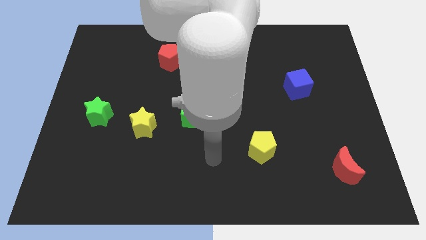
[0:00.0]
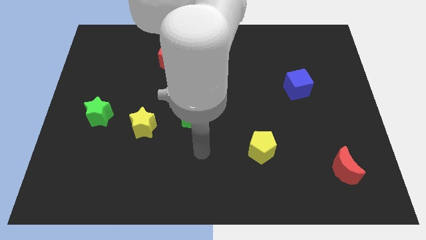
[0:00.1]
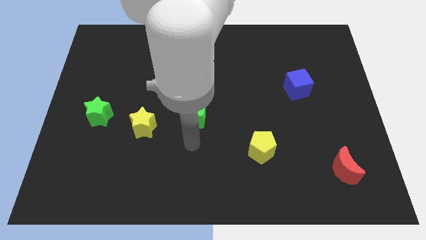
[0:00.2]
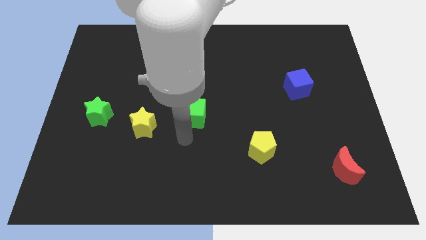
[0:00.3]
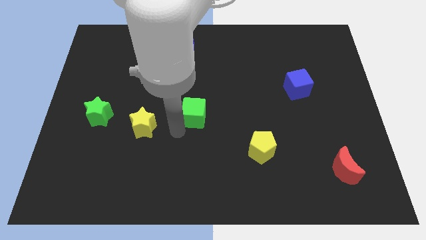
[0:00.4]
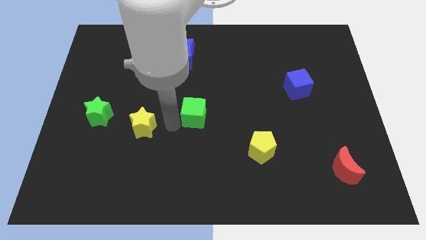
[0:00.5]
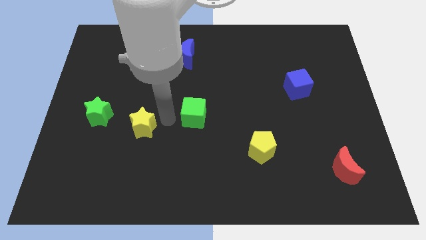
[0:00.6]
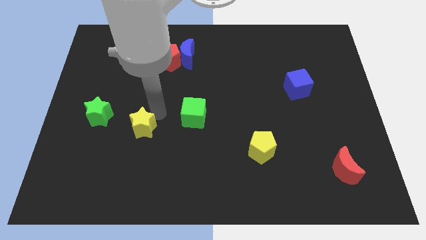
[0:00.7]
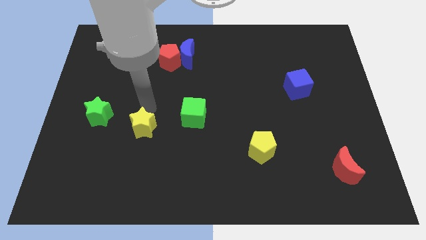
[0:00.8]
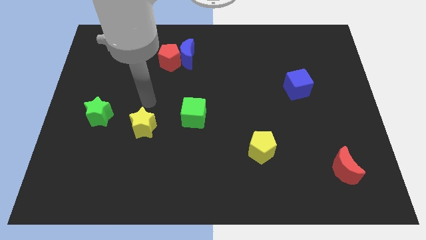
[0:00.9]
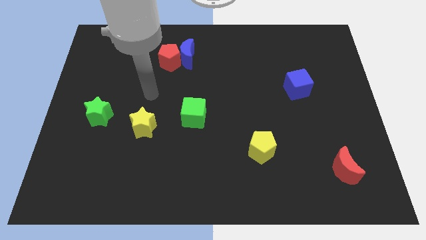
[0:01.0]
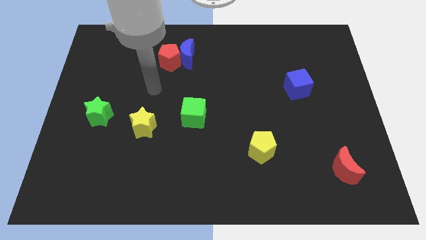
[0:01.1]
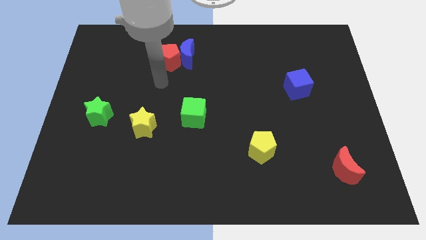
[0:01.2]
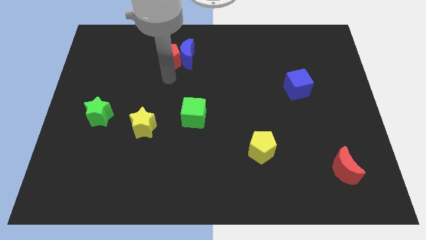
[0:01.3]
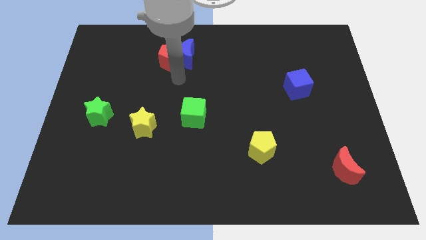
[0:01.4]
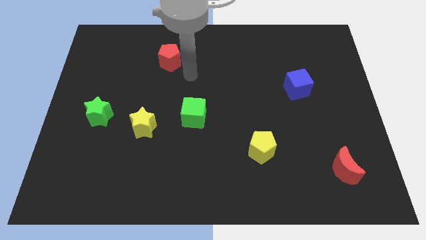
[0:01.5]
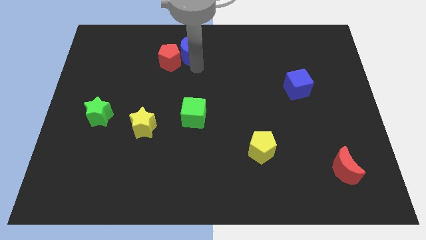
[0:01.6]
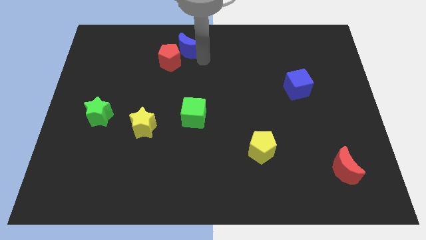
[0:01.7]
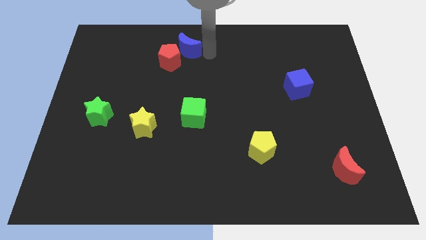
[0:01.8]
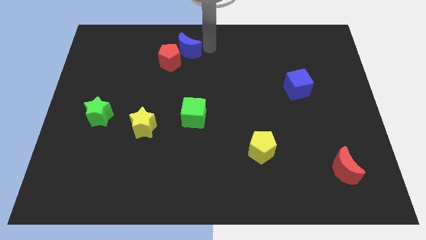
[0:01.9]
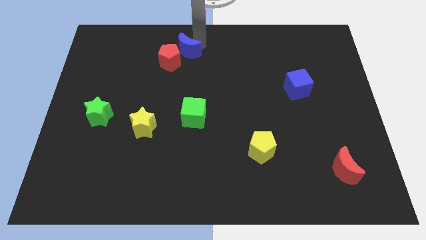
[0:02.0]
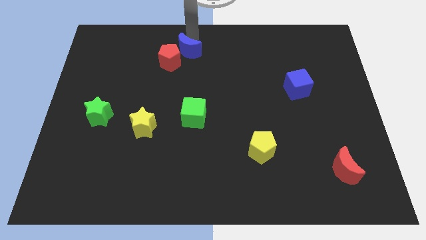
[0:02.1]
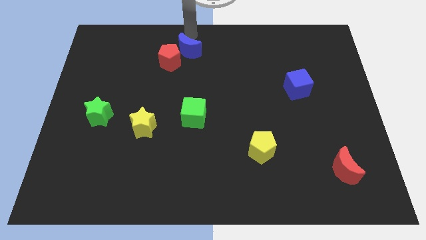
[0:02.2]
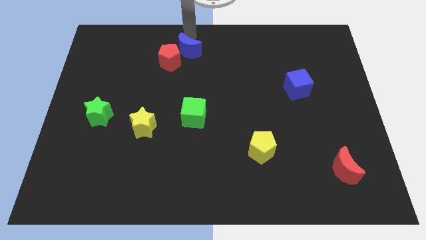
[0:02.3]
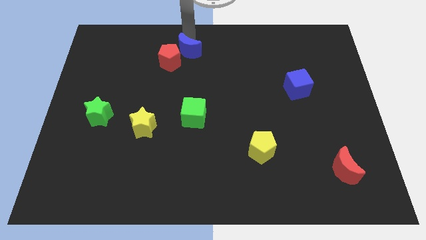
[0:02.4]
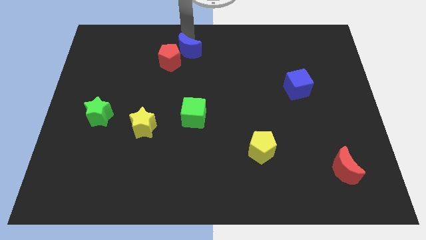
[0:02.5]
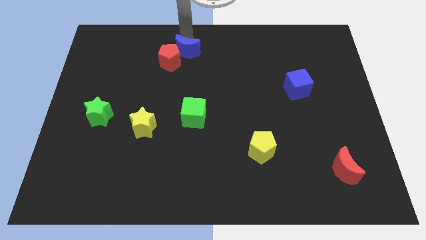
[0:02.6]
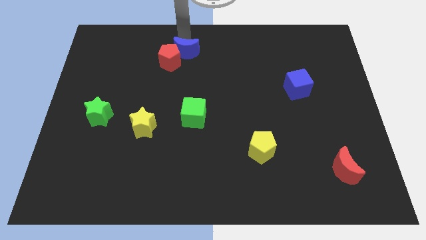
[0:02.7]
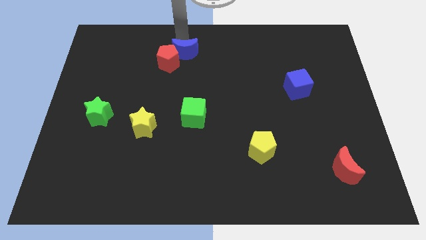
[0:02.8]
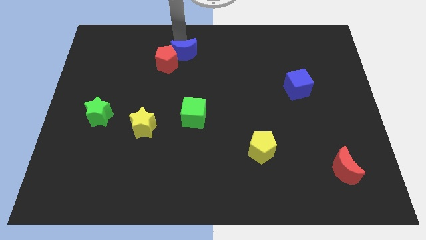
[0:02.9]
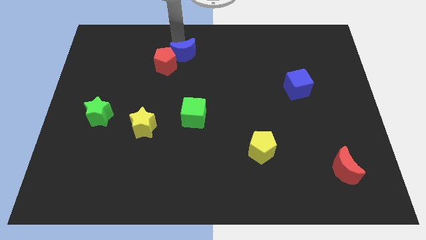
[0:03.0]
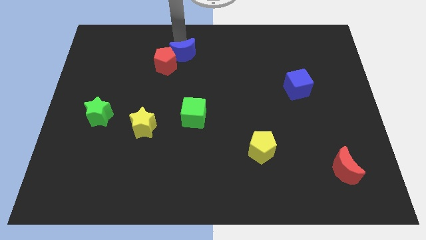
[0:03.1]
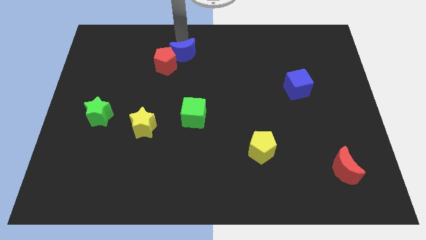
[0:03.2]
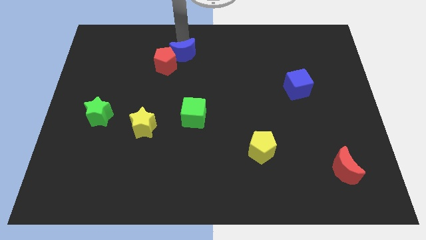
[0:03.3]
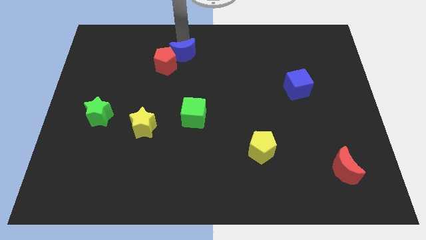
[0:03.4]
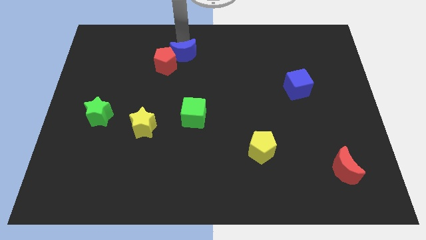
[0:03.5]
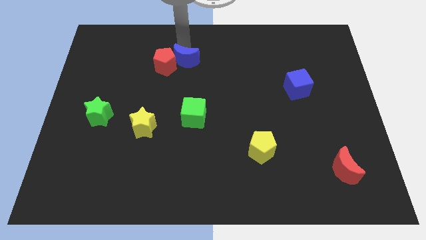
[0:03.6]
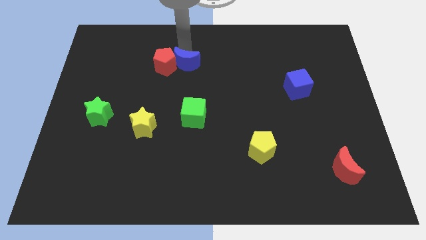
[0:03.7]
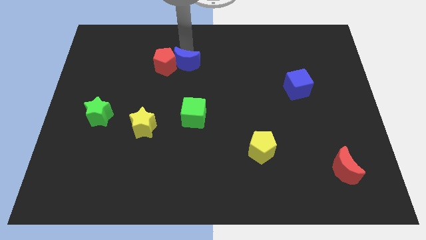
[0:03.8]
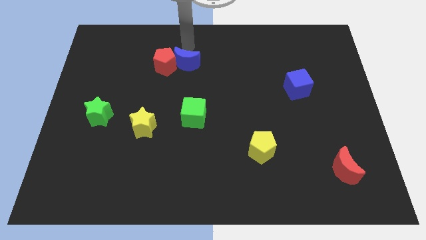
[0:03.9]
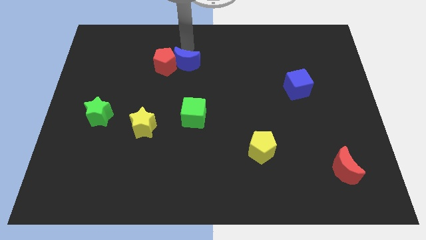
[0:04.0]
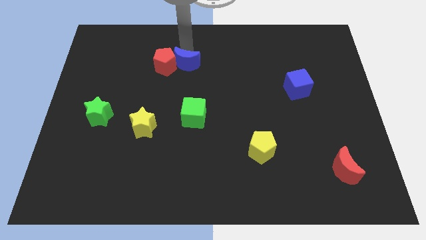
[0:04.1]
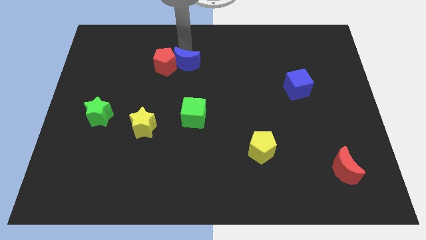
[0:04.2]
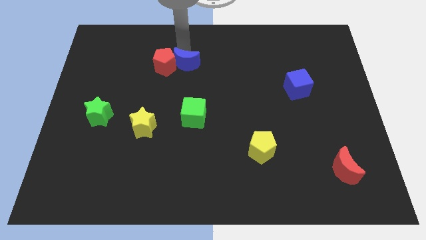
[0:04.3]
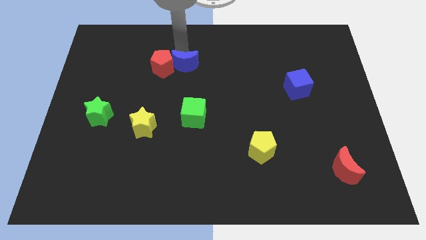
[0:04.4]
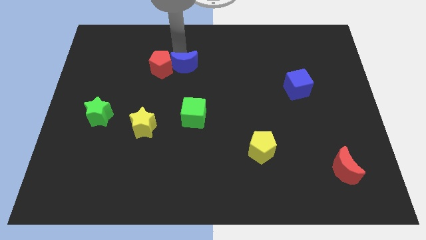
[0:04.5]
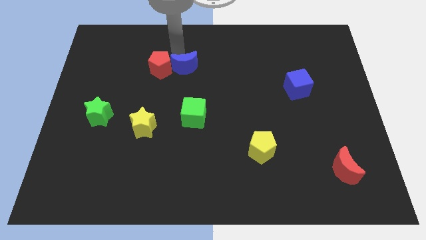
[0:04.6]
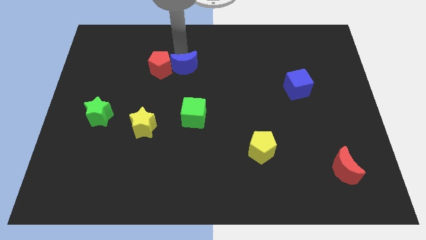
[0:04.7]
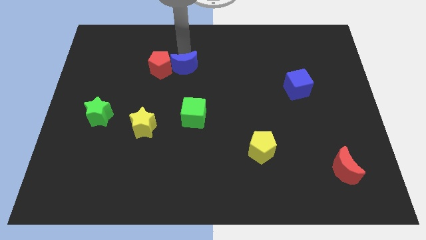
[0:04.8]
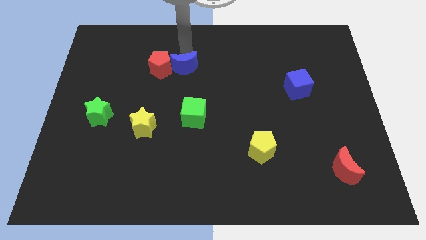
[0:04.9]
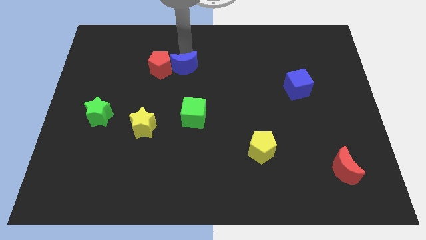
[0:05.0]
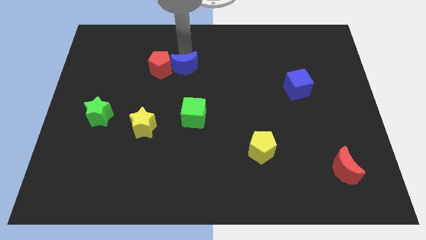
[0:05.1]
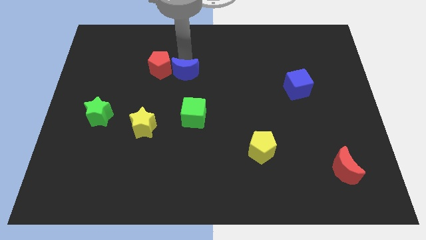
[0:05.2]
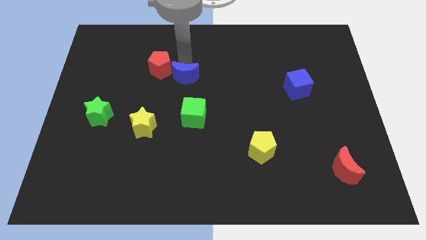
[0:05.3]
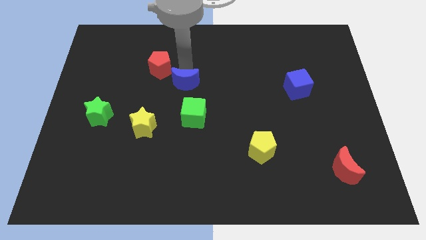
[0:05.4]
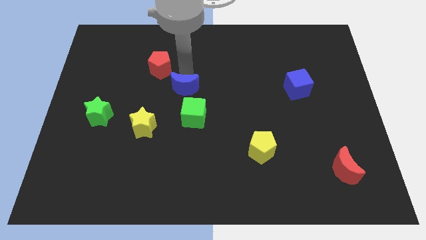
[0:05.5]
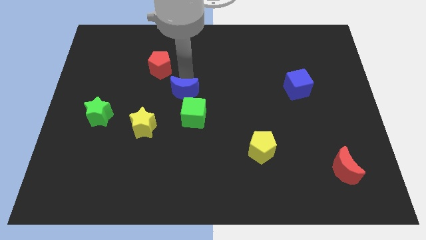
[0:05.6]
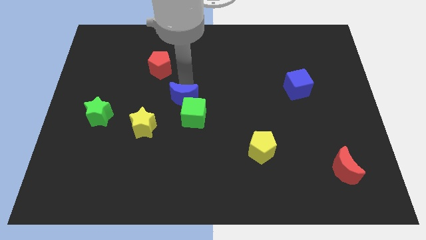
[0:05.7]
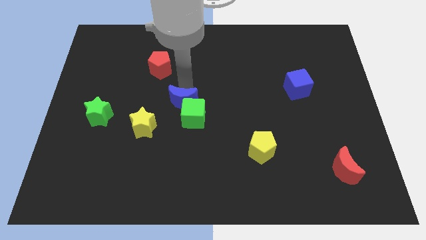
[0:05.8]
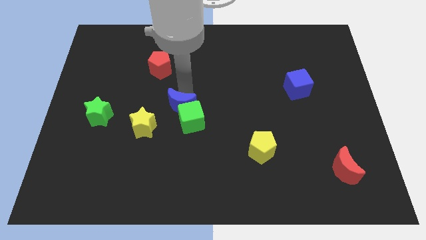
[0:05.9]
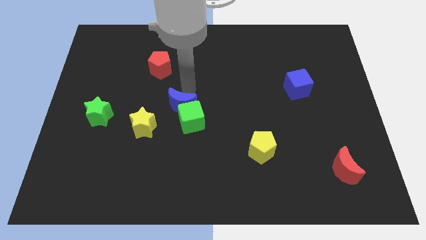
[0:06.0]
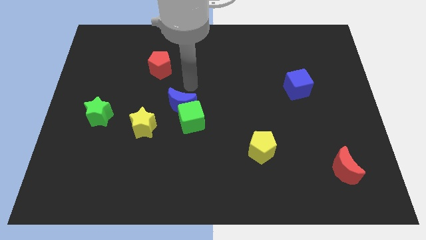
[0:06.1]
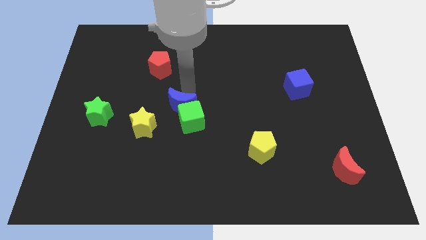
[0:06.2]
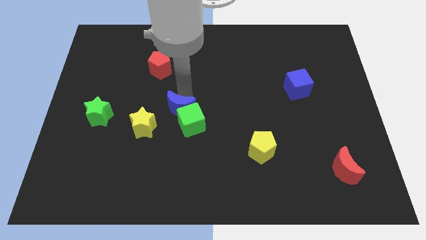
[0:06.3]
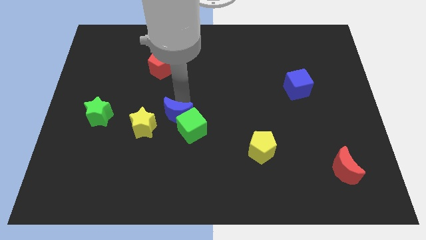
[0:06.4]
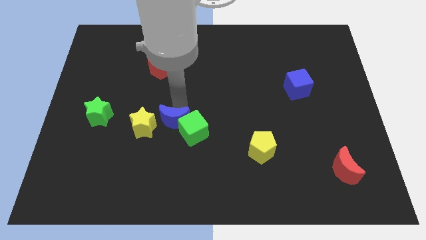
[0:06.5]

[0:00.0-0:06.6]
move the blue moon down

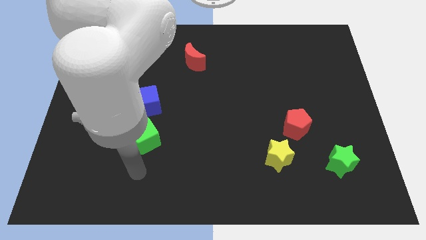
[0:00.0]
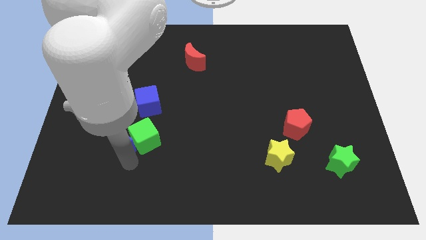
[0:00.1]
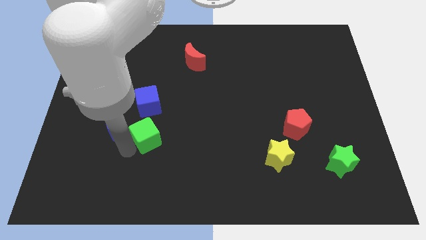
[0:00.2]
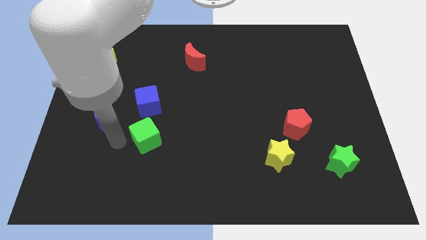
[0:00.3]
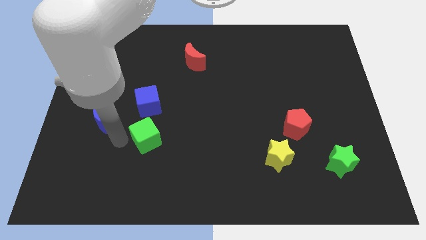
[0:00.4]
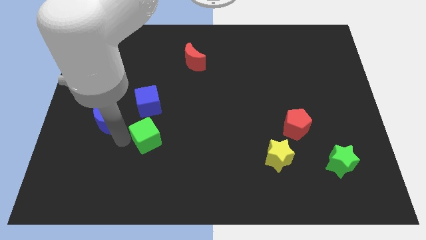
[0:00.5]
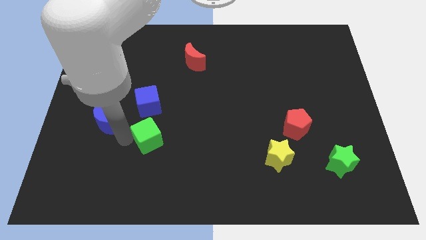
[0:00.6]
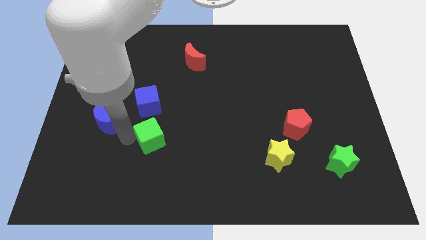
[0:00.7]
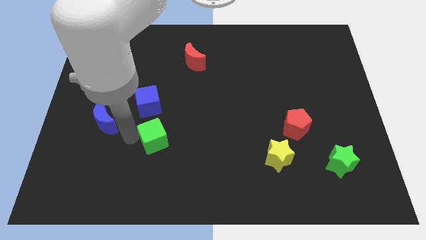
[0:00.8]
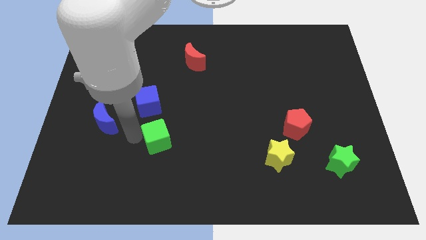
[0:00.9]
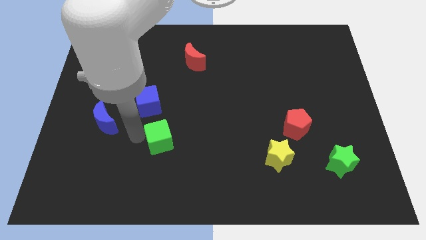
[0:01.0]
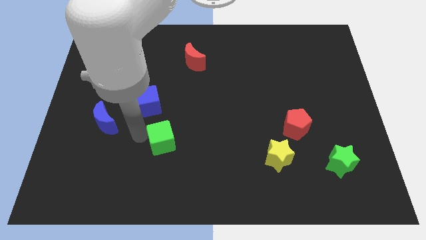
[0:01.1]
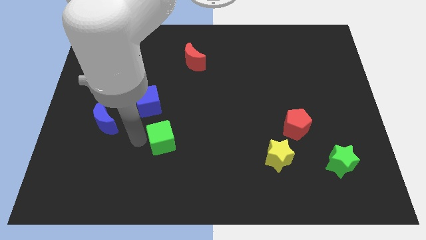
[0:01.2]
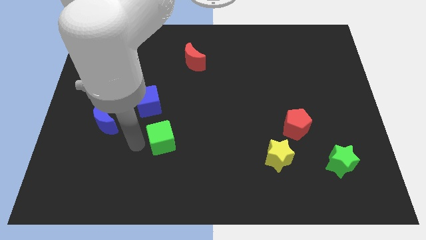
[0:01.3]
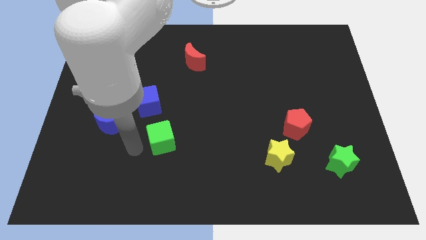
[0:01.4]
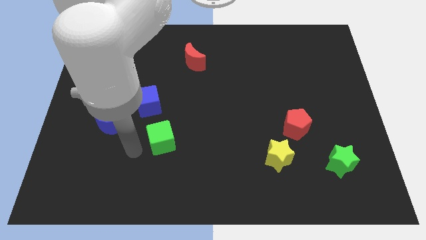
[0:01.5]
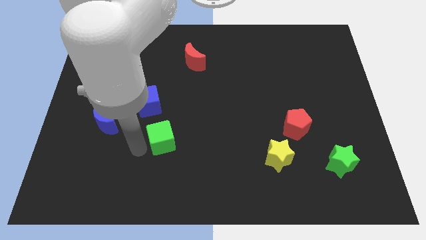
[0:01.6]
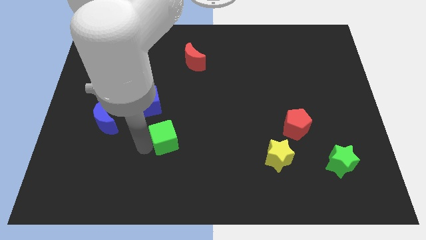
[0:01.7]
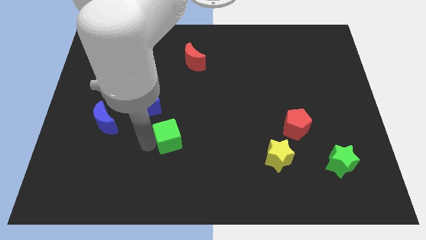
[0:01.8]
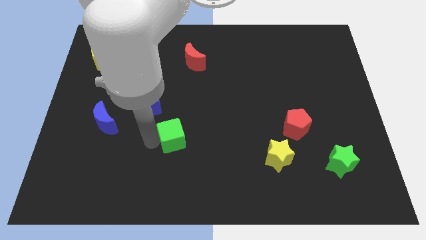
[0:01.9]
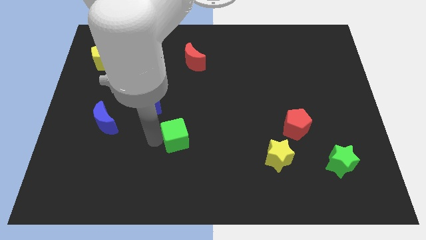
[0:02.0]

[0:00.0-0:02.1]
push the green cube somewhat to the right

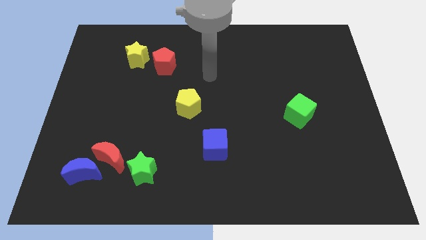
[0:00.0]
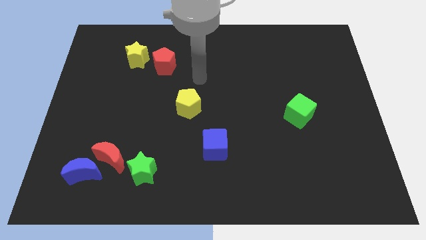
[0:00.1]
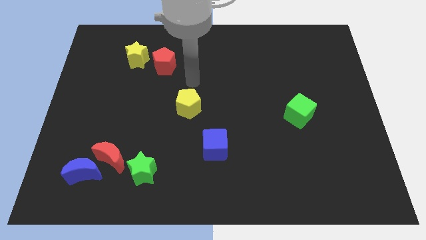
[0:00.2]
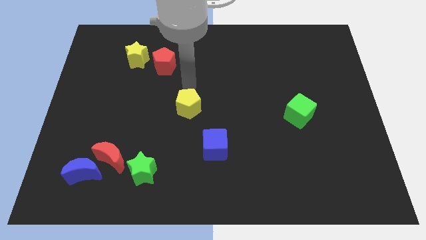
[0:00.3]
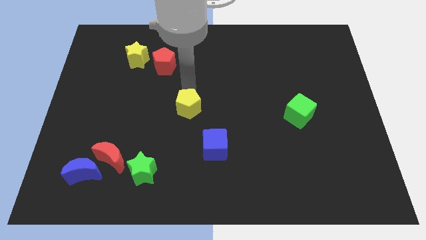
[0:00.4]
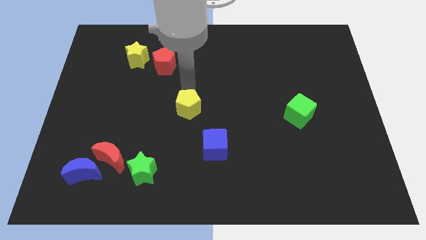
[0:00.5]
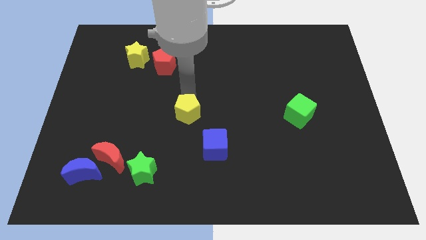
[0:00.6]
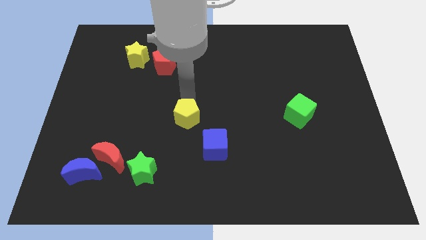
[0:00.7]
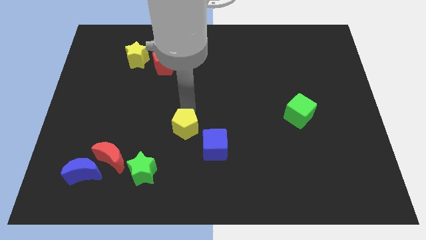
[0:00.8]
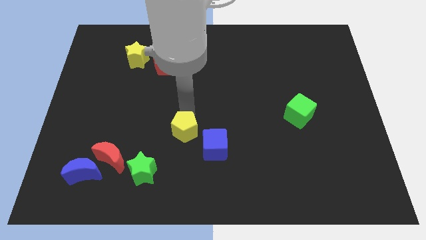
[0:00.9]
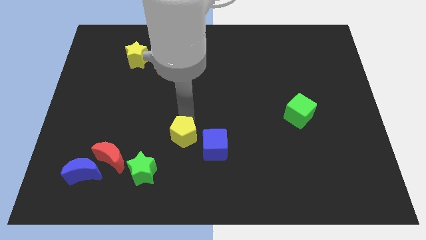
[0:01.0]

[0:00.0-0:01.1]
slightly move the yellow pentagon down
